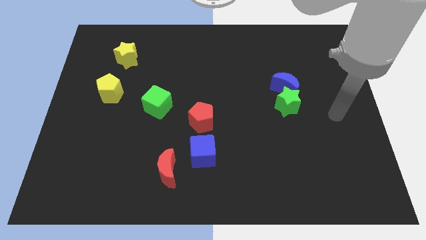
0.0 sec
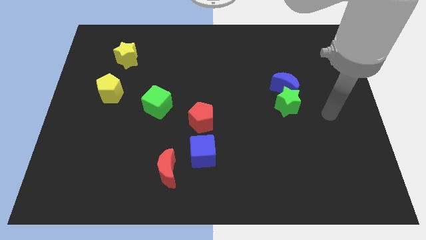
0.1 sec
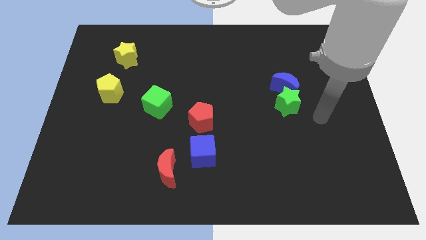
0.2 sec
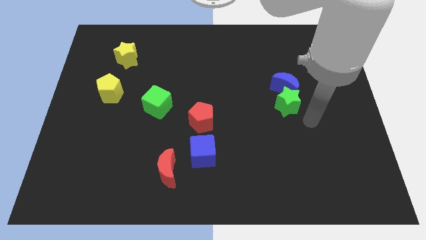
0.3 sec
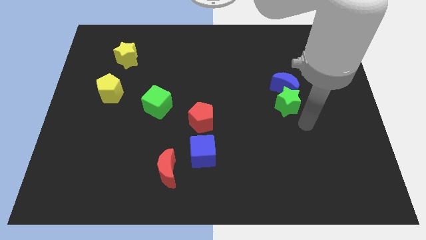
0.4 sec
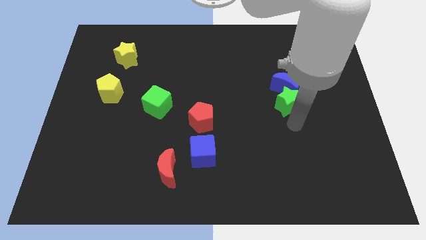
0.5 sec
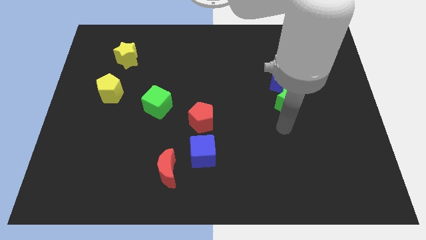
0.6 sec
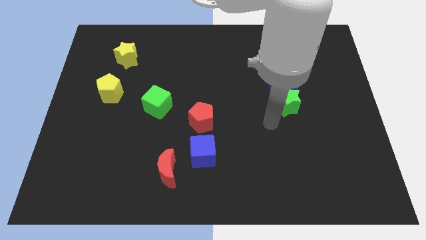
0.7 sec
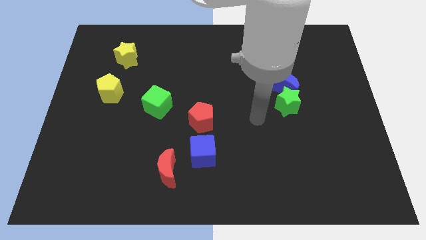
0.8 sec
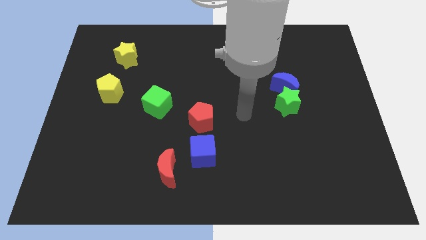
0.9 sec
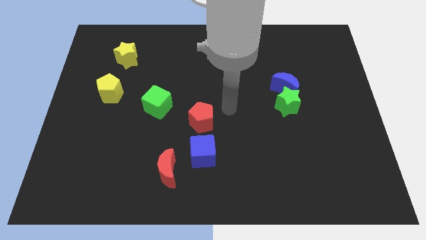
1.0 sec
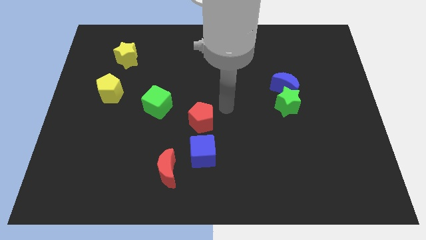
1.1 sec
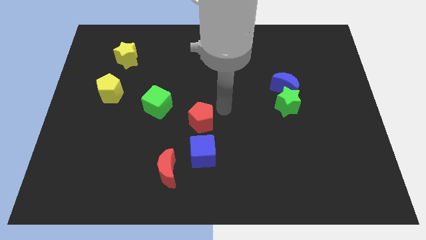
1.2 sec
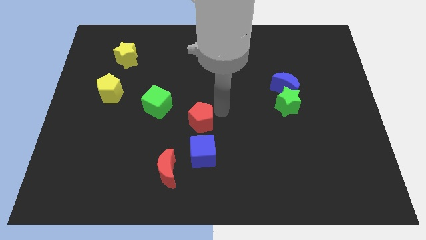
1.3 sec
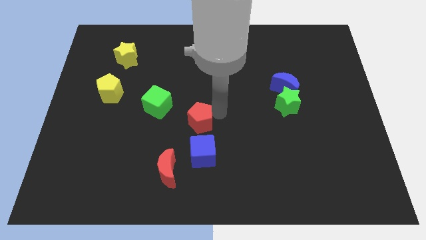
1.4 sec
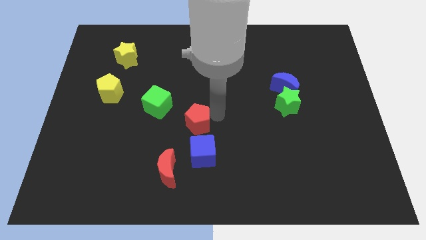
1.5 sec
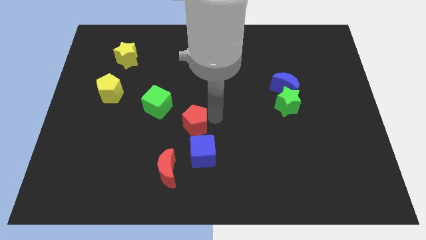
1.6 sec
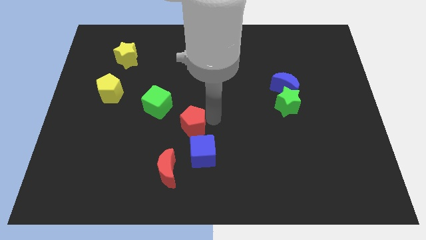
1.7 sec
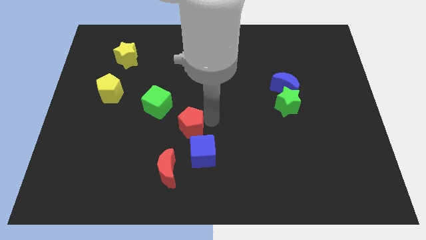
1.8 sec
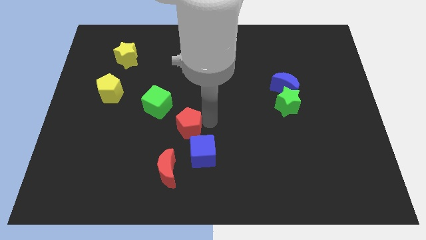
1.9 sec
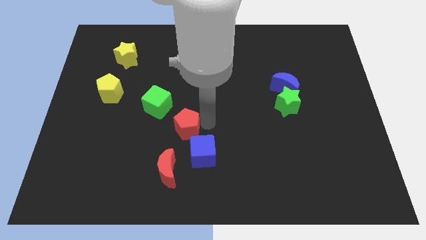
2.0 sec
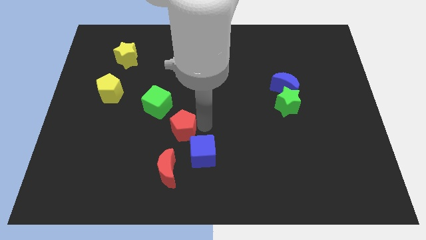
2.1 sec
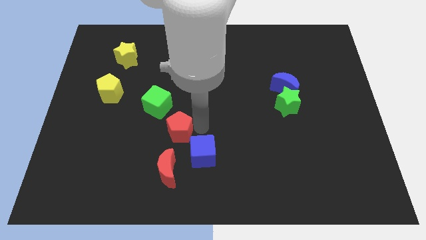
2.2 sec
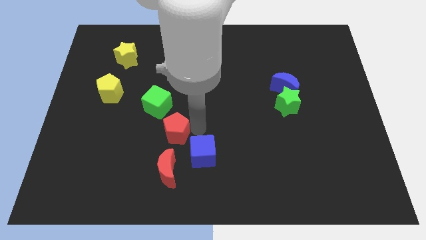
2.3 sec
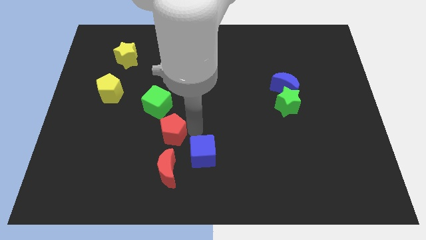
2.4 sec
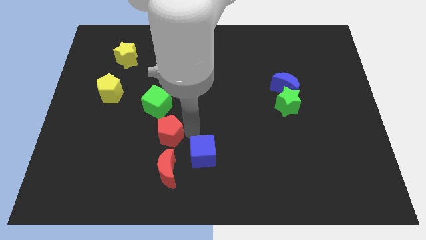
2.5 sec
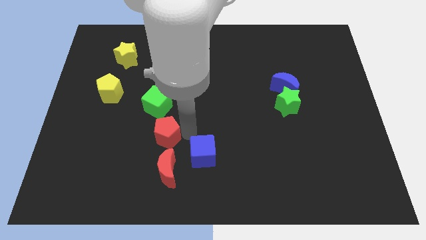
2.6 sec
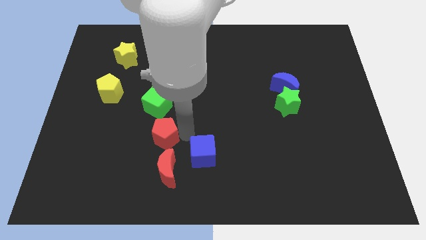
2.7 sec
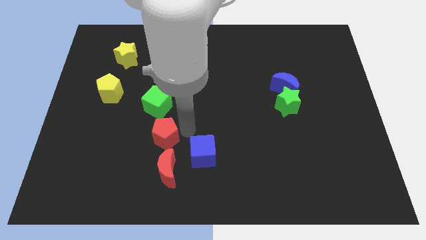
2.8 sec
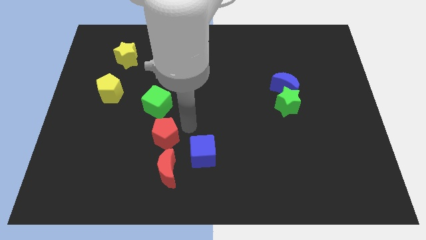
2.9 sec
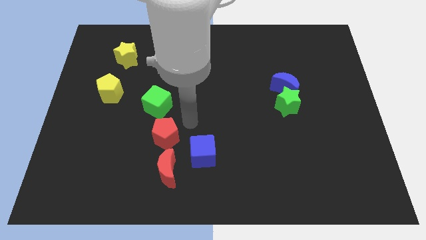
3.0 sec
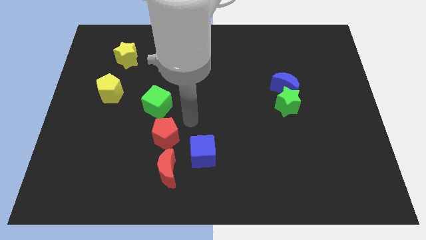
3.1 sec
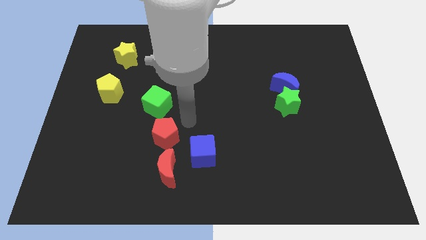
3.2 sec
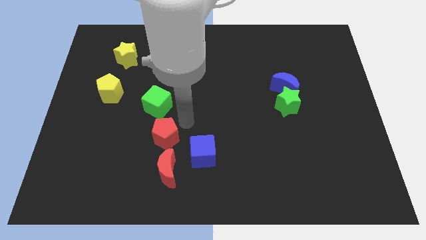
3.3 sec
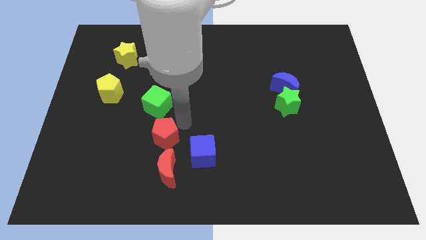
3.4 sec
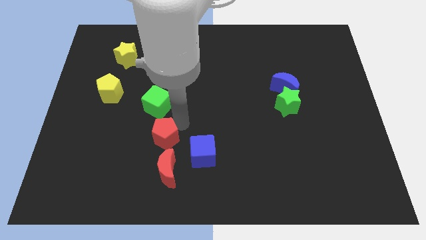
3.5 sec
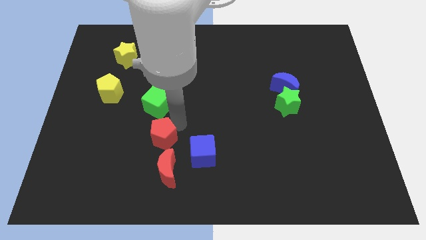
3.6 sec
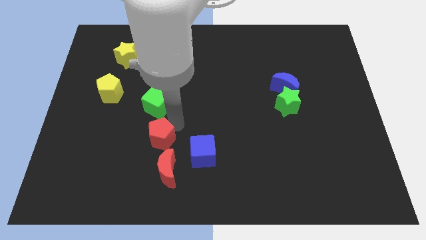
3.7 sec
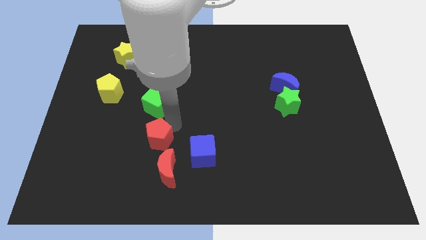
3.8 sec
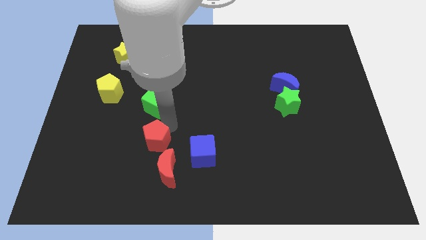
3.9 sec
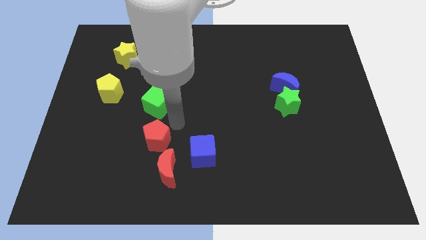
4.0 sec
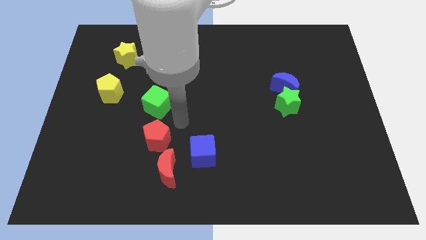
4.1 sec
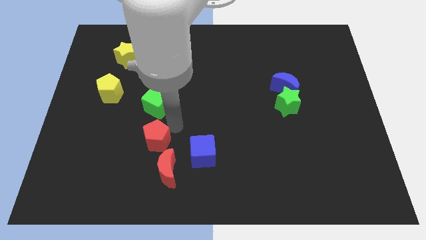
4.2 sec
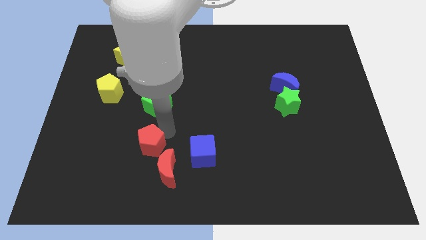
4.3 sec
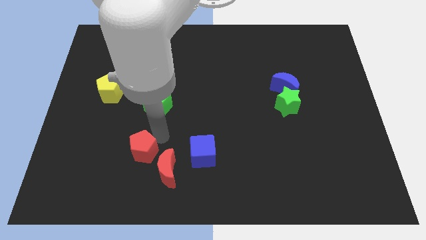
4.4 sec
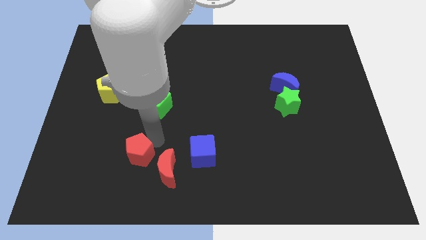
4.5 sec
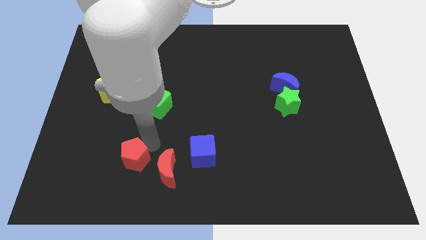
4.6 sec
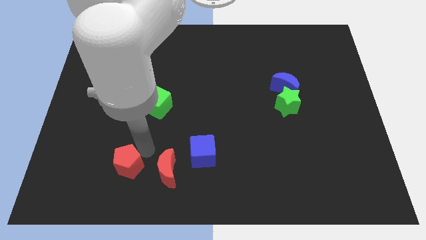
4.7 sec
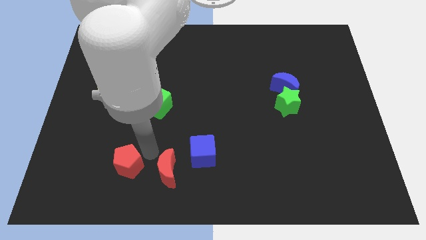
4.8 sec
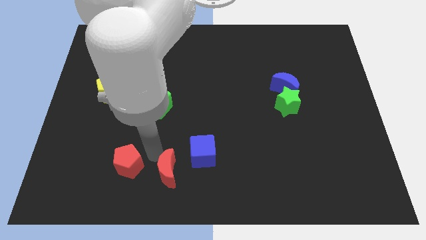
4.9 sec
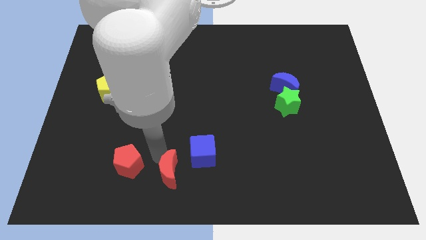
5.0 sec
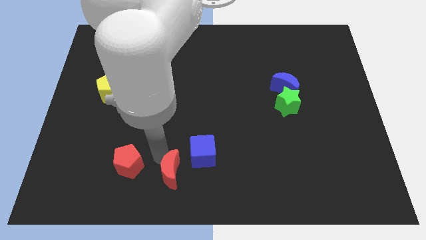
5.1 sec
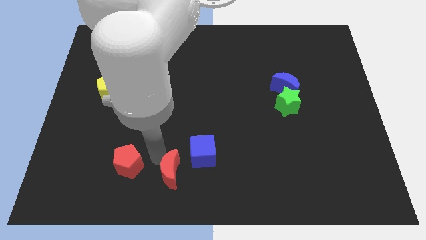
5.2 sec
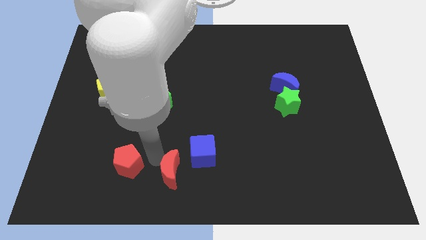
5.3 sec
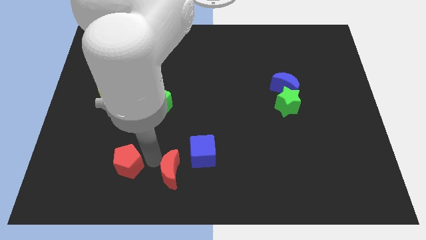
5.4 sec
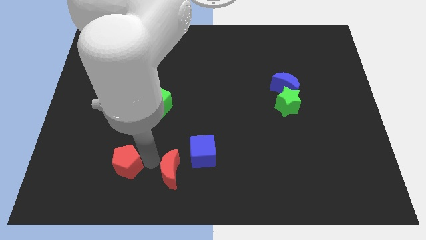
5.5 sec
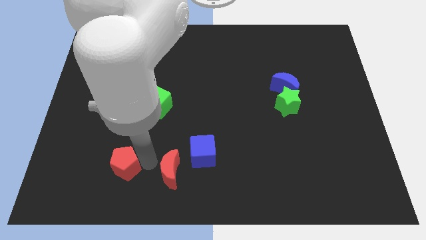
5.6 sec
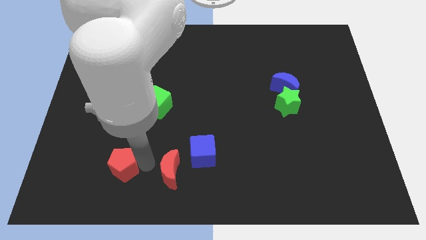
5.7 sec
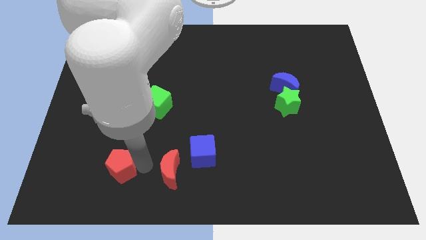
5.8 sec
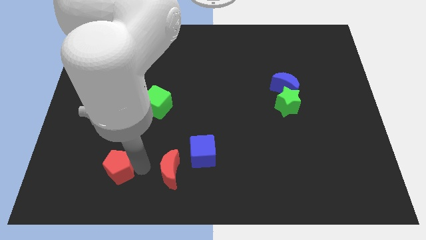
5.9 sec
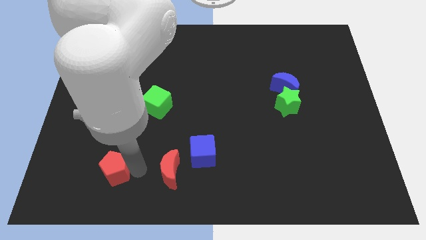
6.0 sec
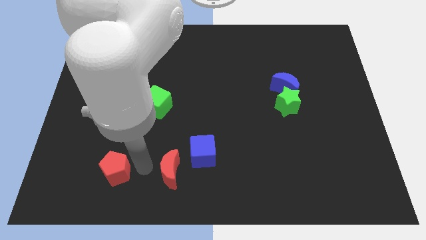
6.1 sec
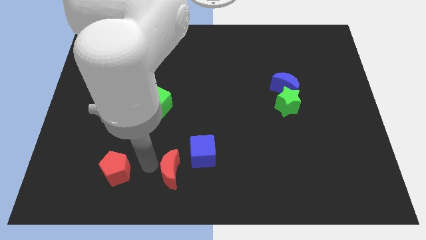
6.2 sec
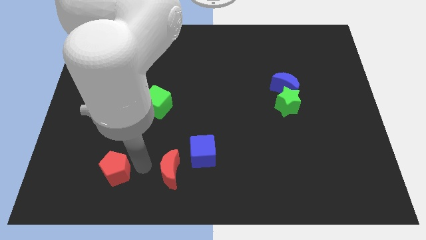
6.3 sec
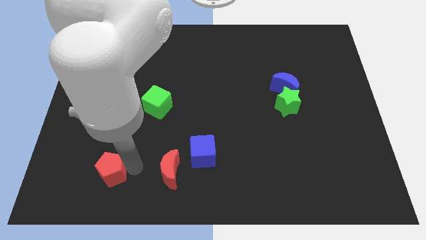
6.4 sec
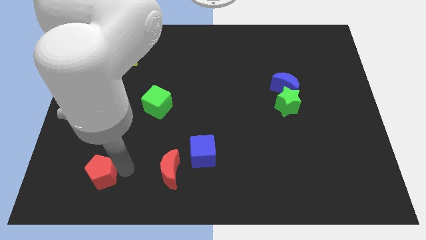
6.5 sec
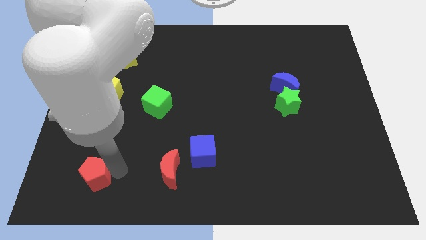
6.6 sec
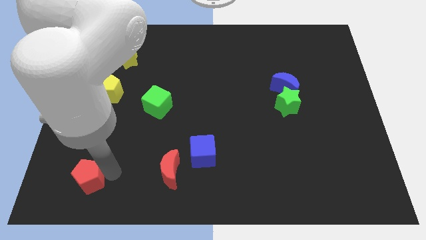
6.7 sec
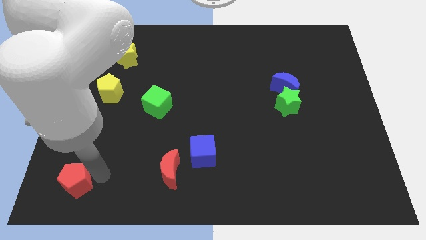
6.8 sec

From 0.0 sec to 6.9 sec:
put the red pentagon to the bottom left of the board
